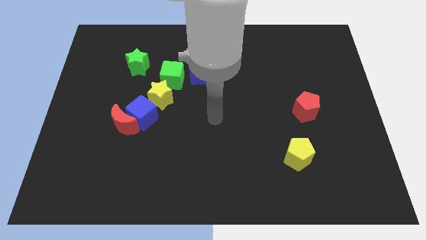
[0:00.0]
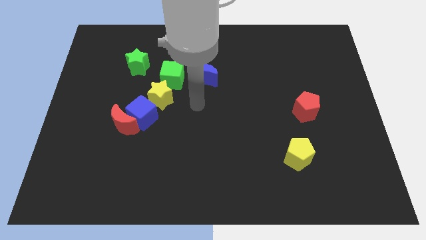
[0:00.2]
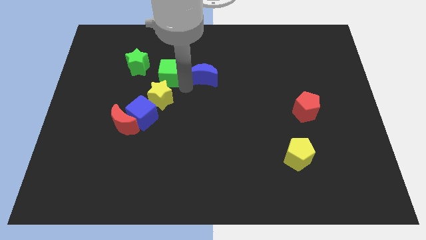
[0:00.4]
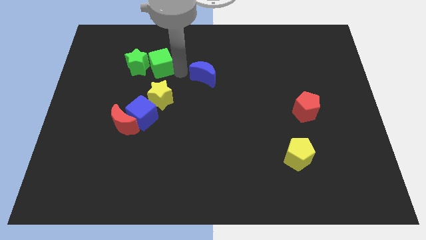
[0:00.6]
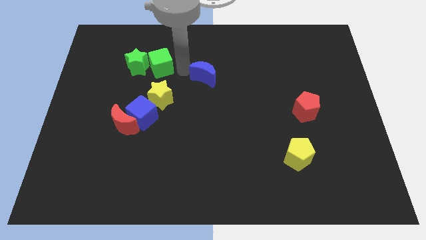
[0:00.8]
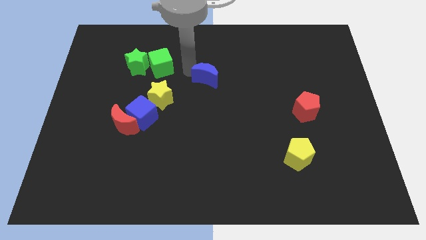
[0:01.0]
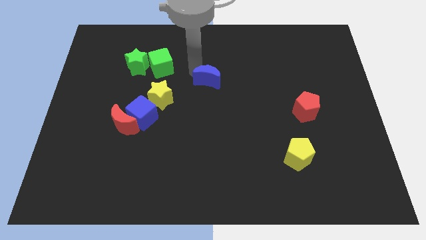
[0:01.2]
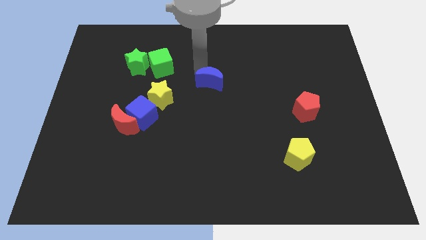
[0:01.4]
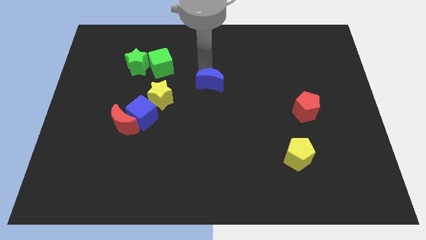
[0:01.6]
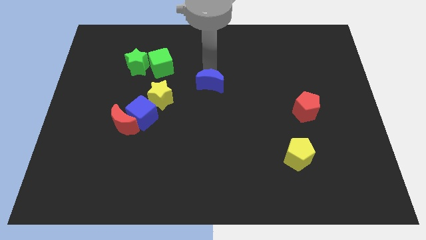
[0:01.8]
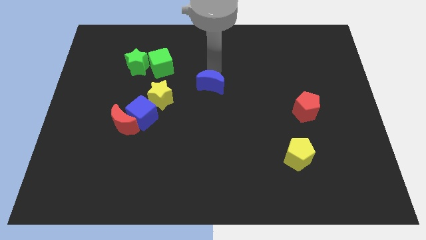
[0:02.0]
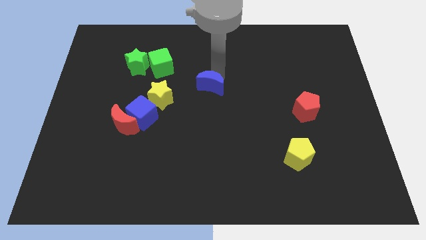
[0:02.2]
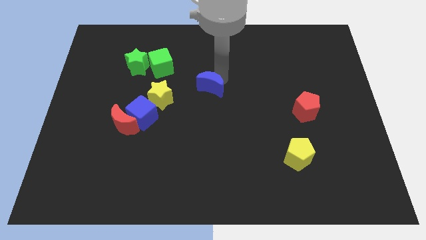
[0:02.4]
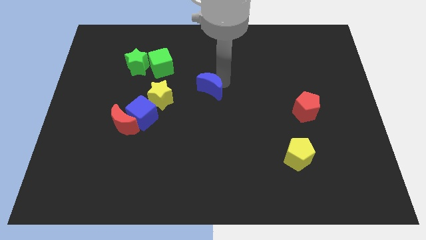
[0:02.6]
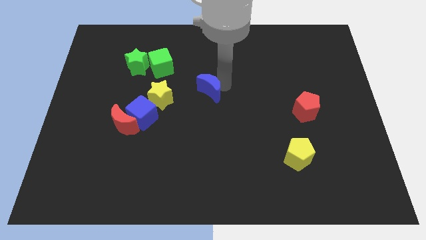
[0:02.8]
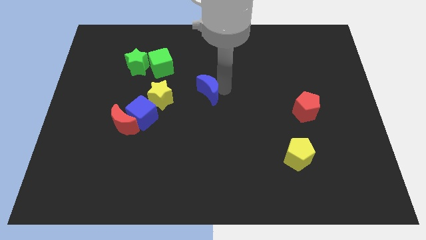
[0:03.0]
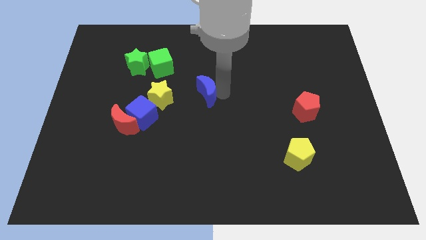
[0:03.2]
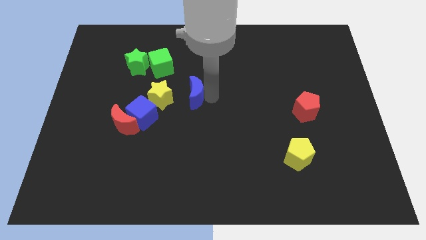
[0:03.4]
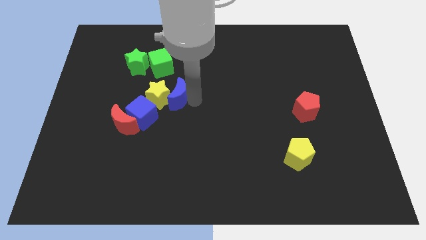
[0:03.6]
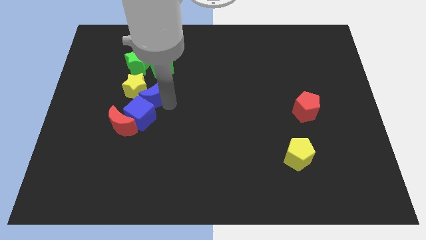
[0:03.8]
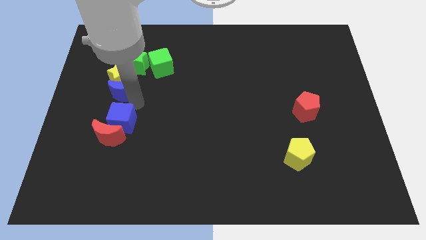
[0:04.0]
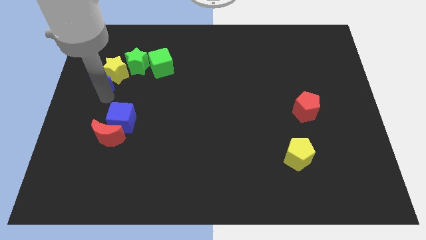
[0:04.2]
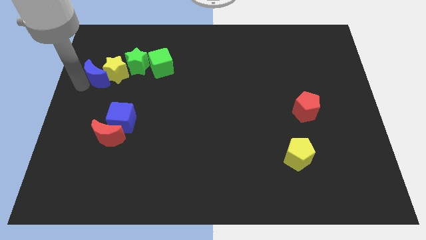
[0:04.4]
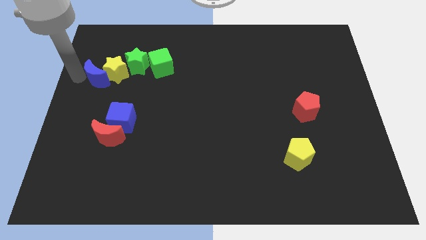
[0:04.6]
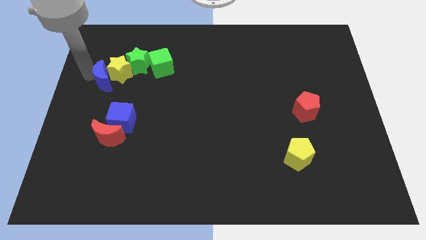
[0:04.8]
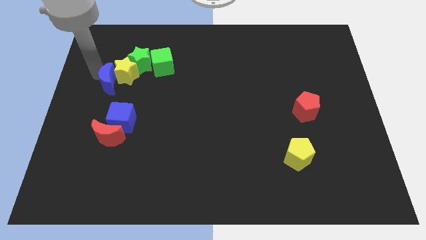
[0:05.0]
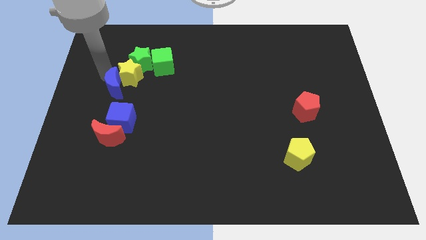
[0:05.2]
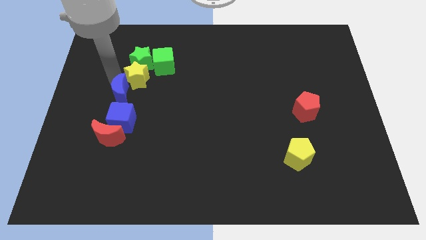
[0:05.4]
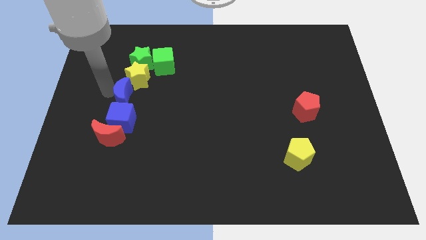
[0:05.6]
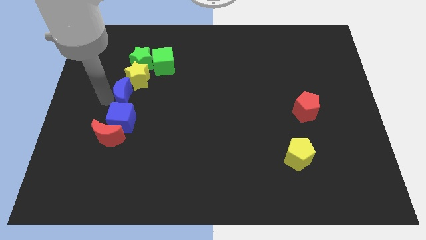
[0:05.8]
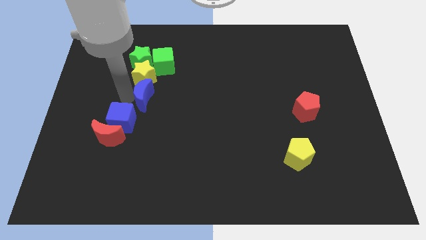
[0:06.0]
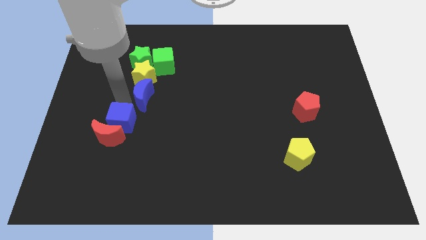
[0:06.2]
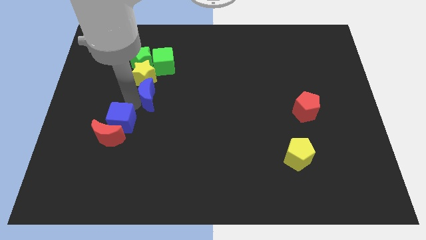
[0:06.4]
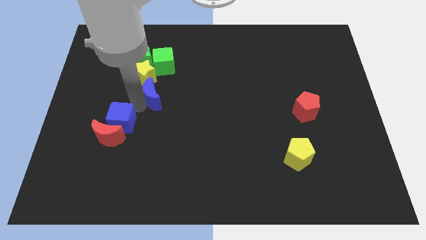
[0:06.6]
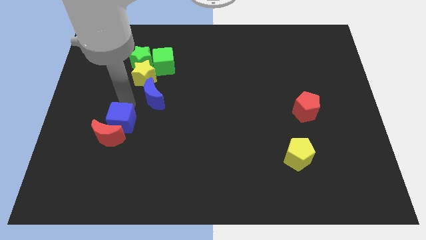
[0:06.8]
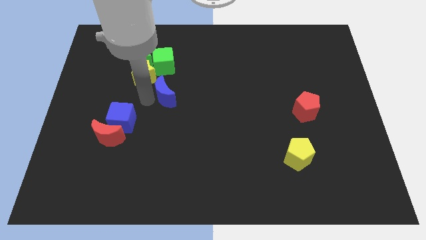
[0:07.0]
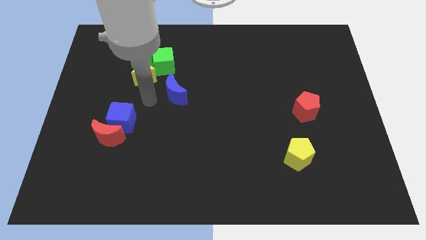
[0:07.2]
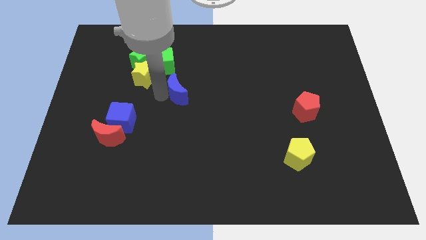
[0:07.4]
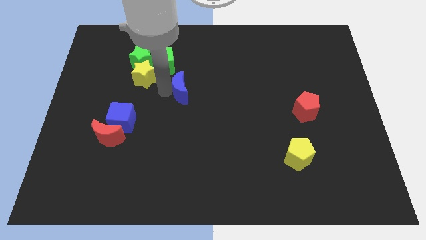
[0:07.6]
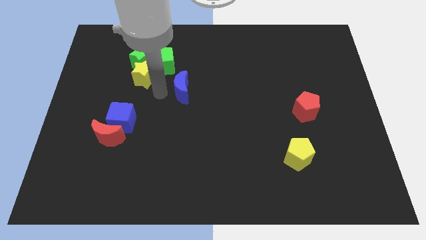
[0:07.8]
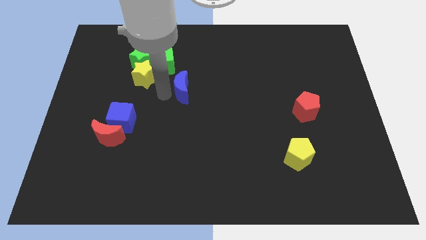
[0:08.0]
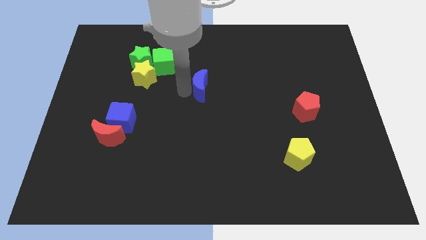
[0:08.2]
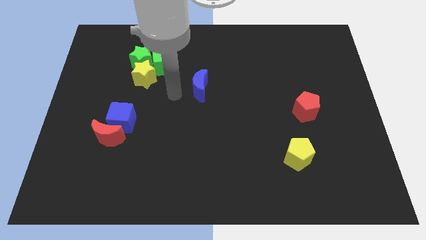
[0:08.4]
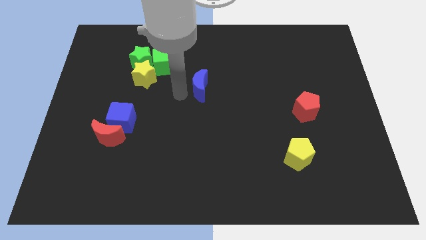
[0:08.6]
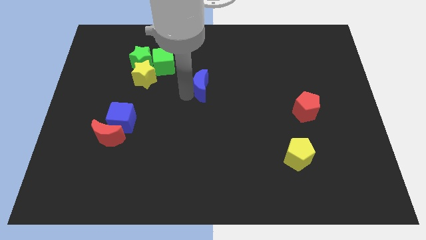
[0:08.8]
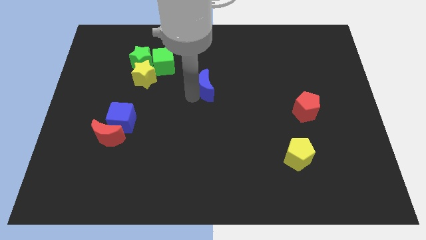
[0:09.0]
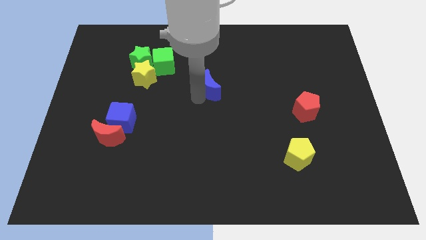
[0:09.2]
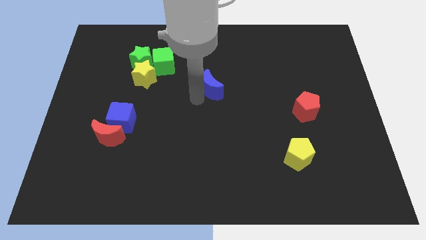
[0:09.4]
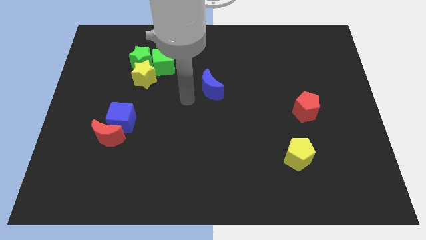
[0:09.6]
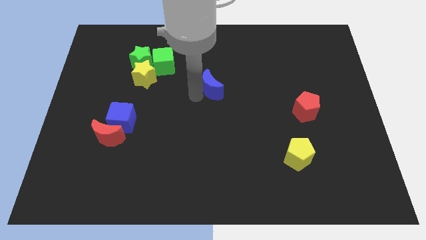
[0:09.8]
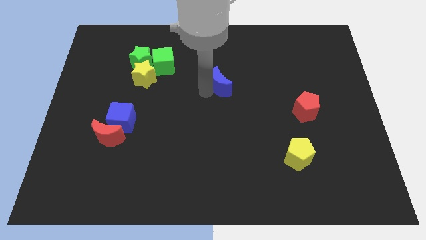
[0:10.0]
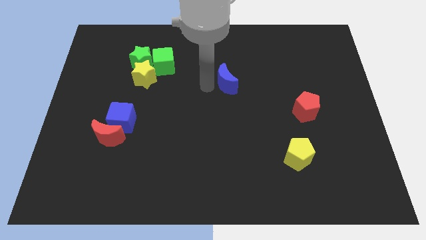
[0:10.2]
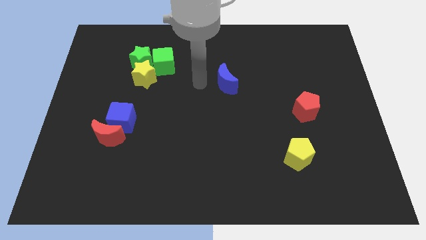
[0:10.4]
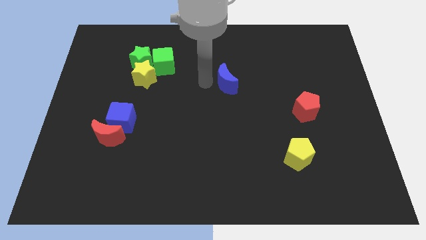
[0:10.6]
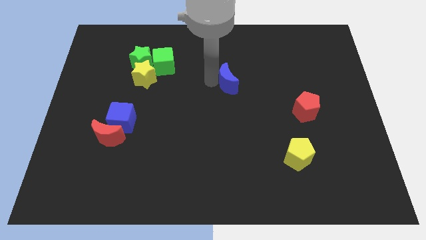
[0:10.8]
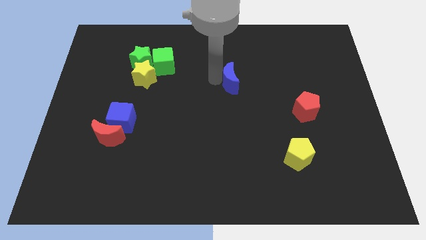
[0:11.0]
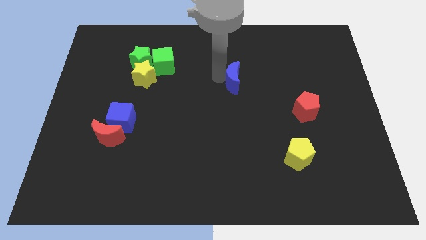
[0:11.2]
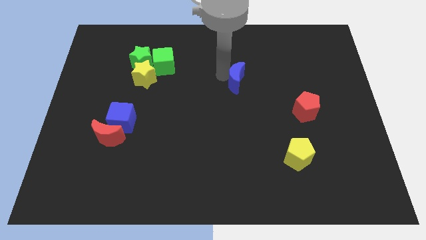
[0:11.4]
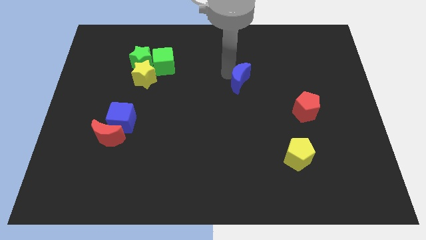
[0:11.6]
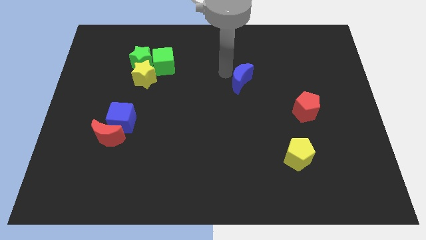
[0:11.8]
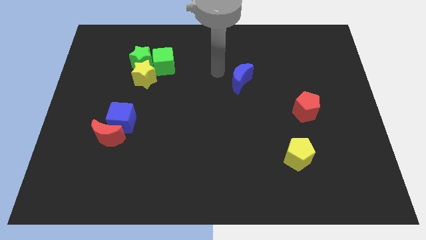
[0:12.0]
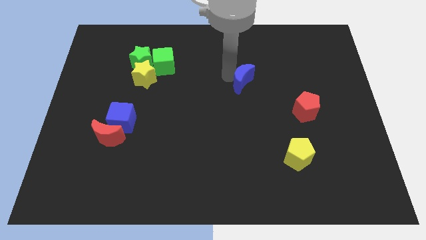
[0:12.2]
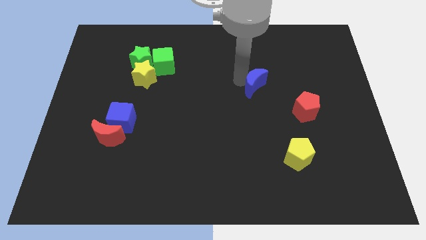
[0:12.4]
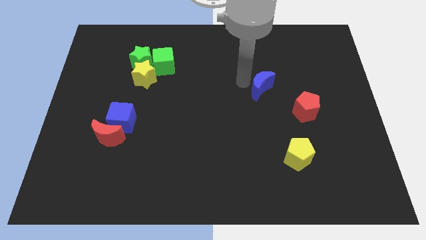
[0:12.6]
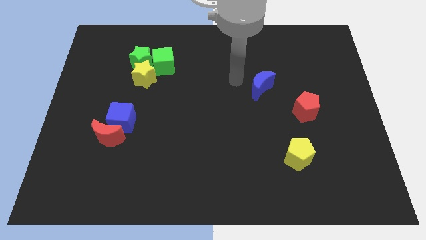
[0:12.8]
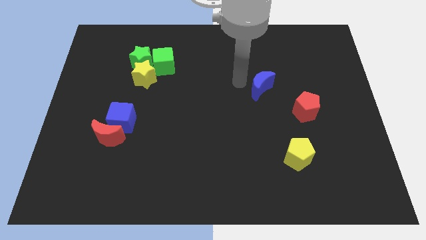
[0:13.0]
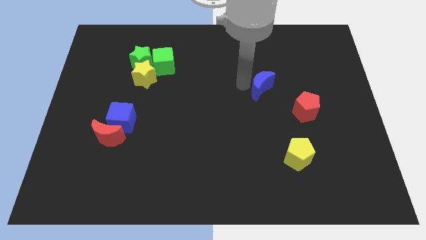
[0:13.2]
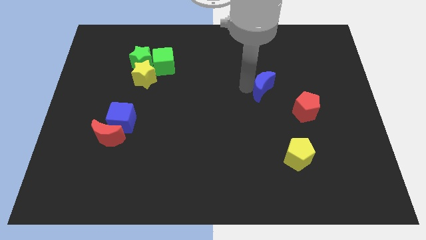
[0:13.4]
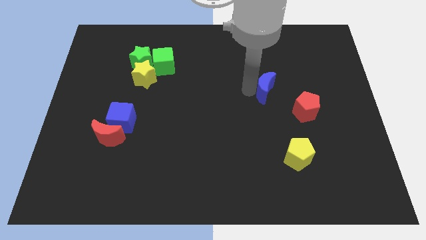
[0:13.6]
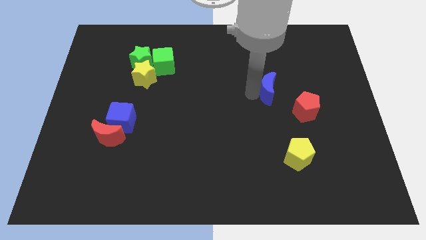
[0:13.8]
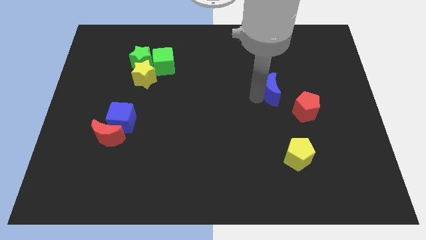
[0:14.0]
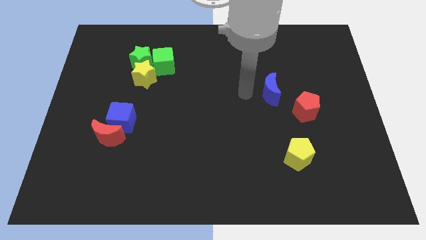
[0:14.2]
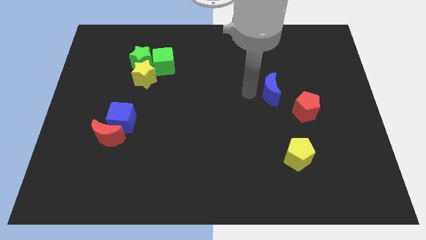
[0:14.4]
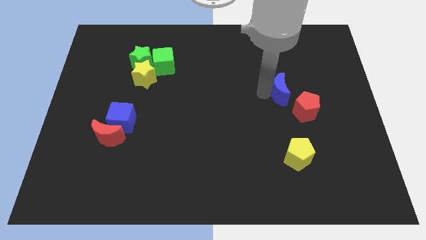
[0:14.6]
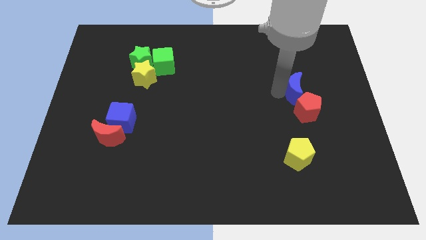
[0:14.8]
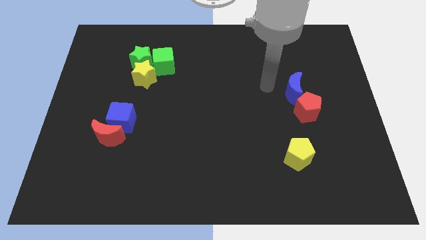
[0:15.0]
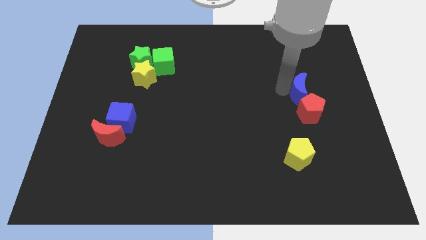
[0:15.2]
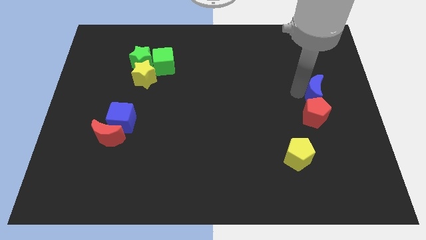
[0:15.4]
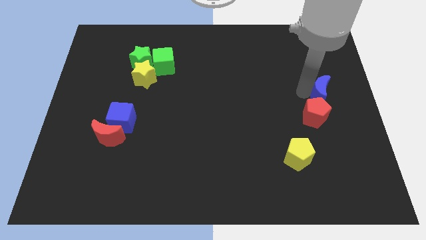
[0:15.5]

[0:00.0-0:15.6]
move the blue moon to the right side
